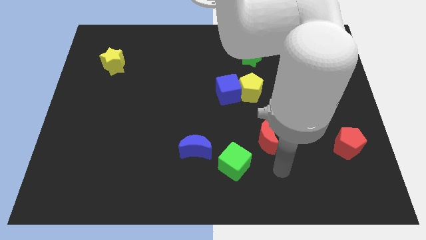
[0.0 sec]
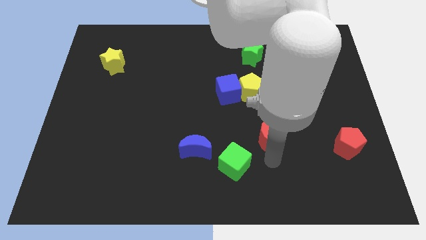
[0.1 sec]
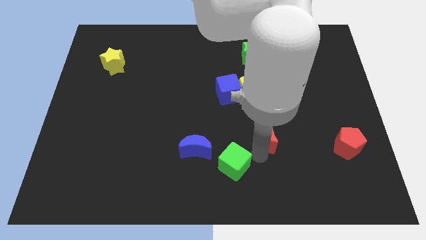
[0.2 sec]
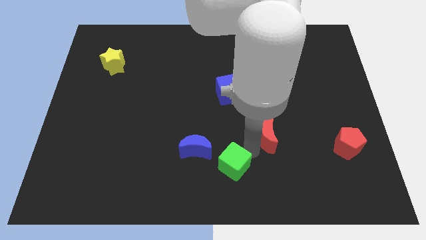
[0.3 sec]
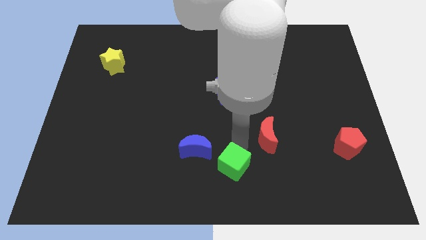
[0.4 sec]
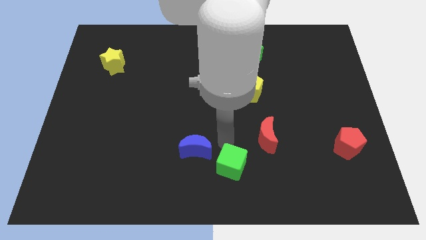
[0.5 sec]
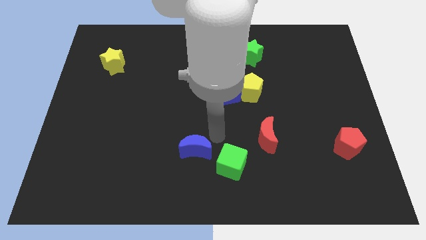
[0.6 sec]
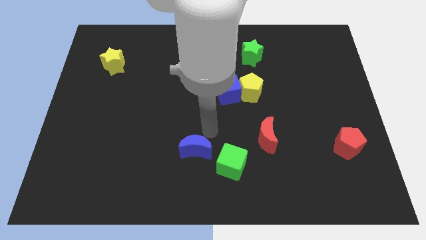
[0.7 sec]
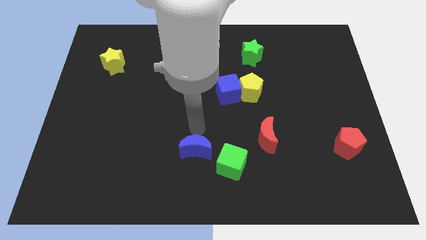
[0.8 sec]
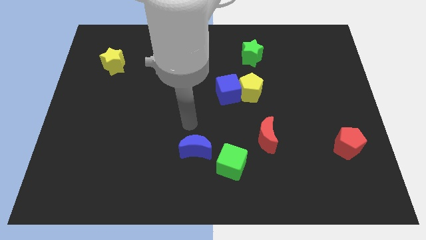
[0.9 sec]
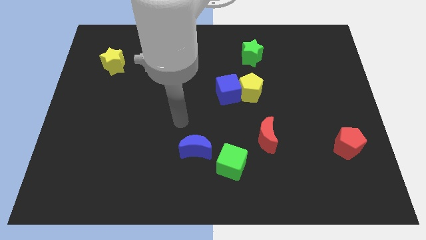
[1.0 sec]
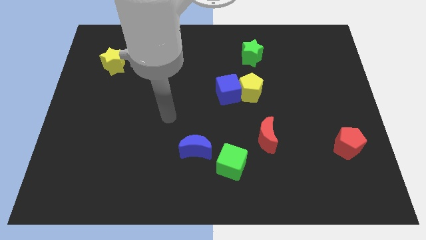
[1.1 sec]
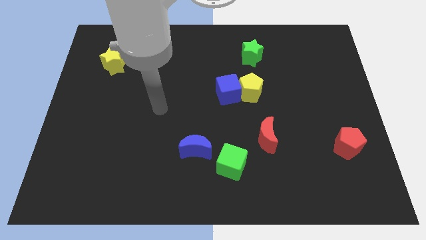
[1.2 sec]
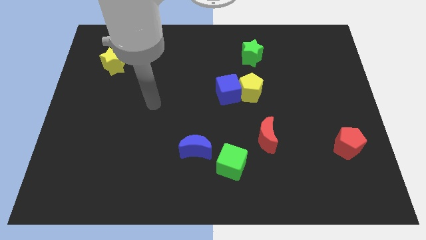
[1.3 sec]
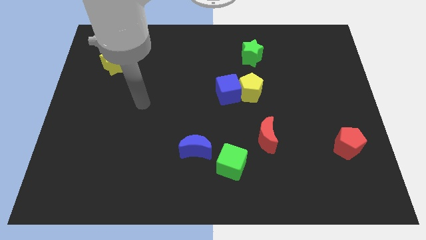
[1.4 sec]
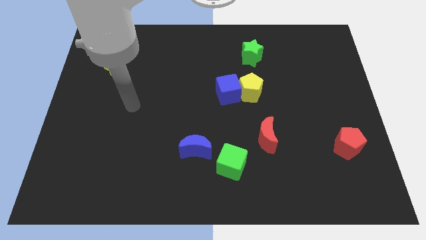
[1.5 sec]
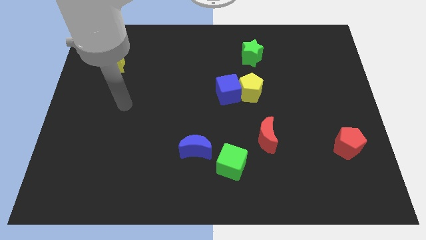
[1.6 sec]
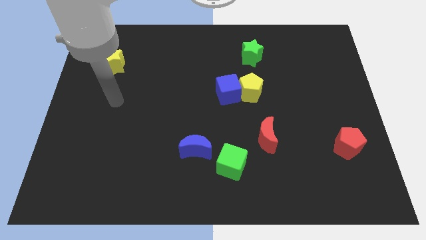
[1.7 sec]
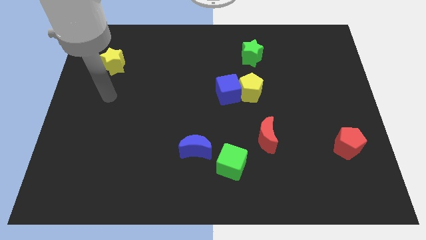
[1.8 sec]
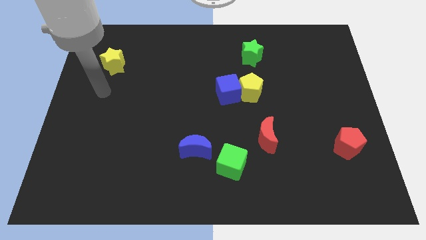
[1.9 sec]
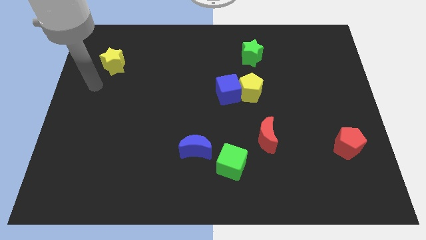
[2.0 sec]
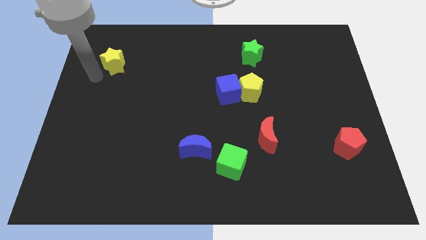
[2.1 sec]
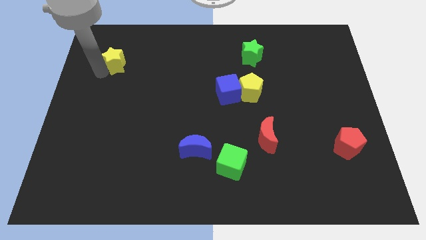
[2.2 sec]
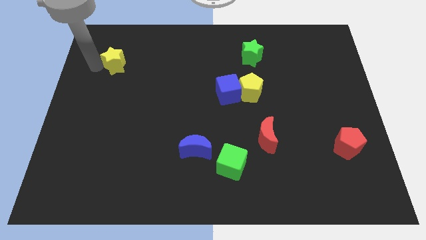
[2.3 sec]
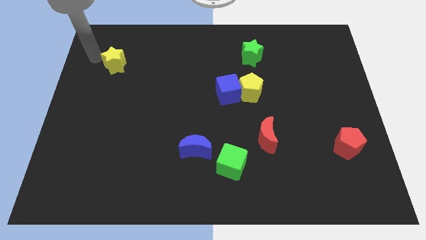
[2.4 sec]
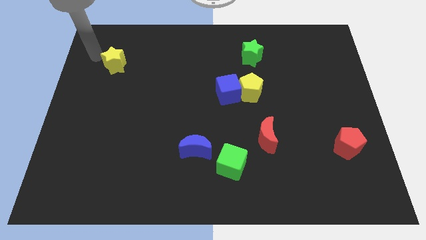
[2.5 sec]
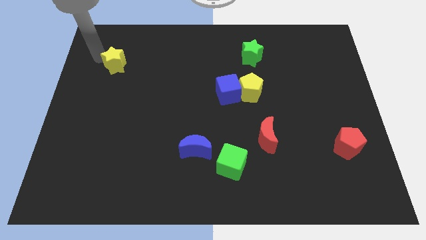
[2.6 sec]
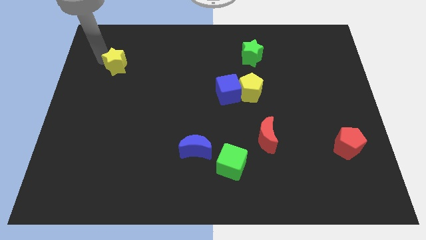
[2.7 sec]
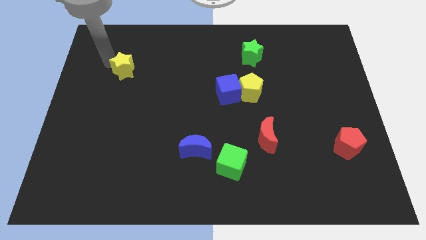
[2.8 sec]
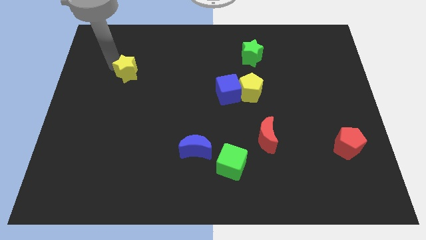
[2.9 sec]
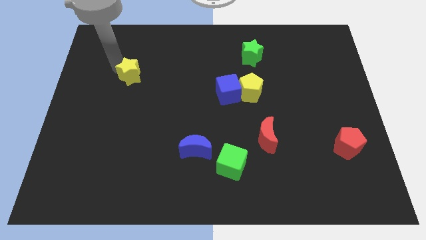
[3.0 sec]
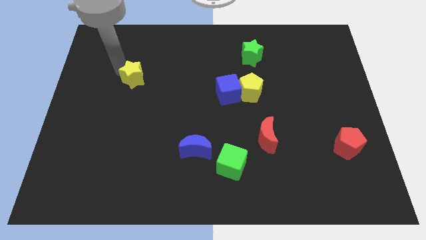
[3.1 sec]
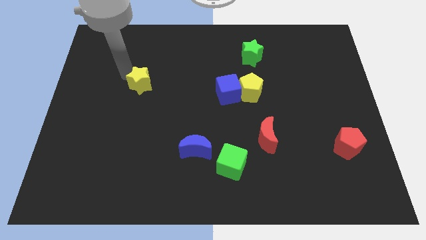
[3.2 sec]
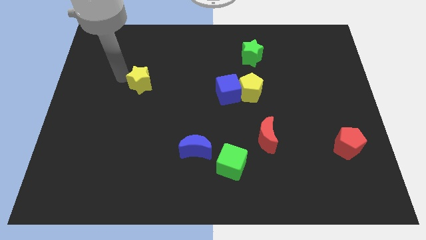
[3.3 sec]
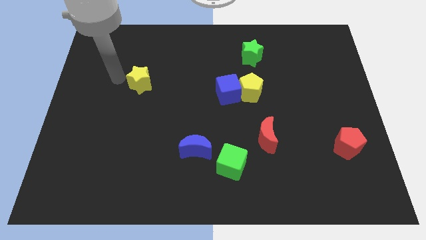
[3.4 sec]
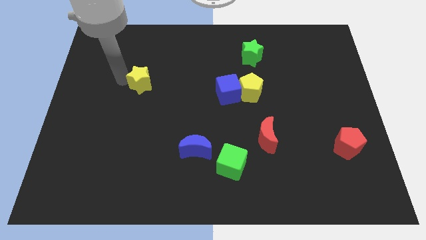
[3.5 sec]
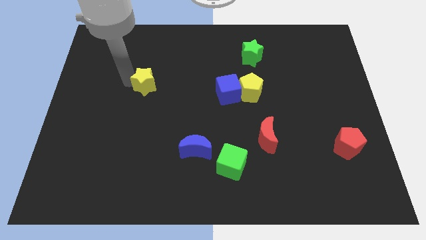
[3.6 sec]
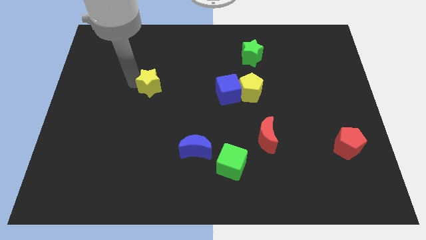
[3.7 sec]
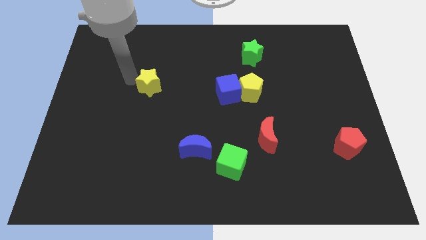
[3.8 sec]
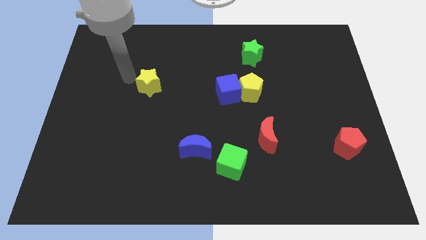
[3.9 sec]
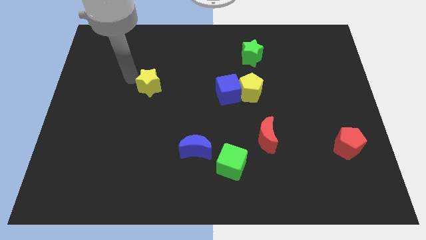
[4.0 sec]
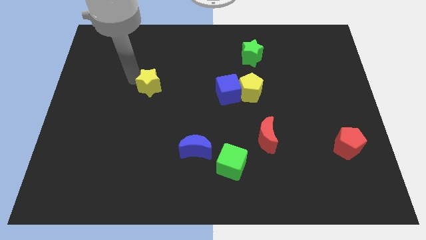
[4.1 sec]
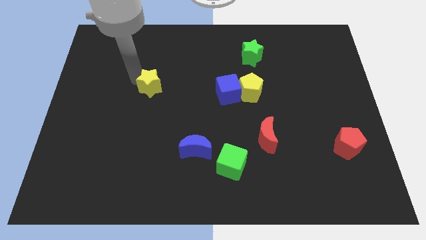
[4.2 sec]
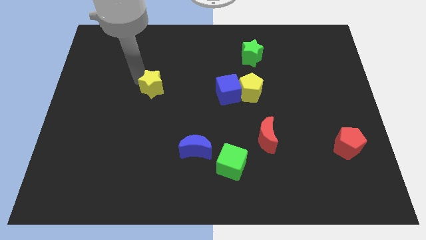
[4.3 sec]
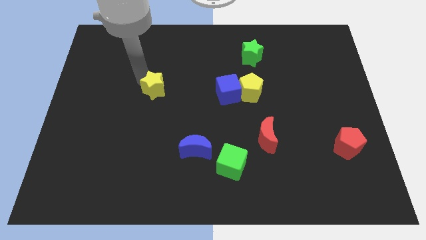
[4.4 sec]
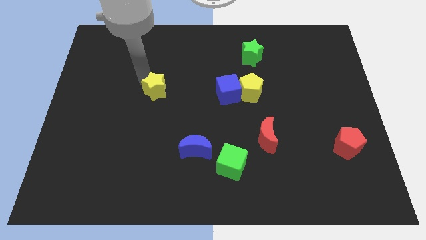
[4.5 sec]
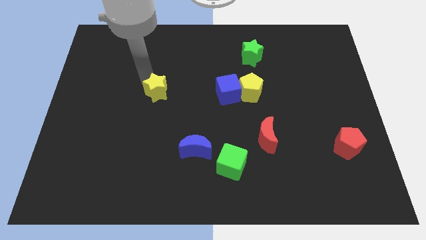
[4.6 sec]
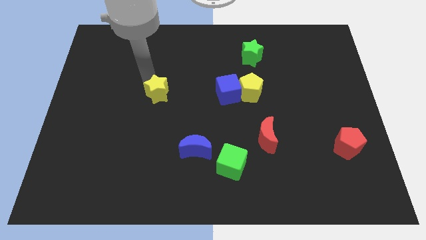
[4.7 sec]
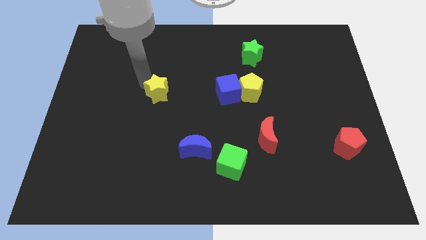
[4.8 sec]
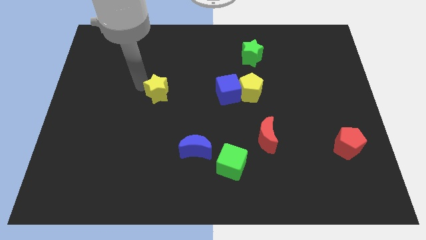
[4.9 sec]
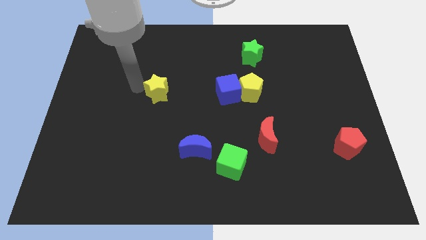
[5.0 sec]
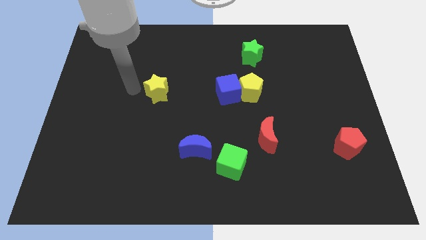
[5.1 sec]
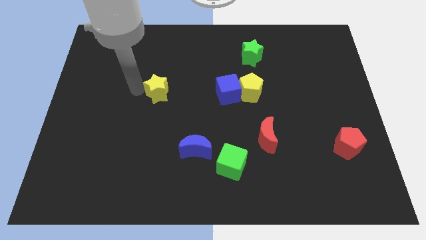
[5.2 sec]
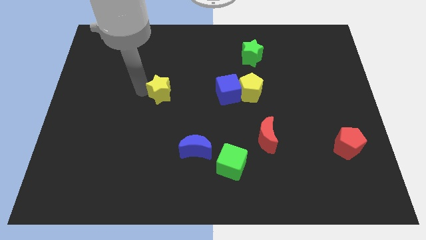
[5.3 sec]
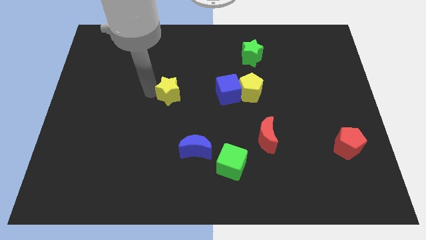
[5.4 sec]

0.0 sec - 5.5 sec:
push the yellow star to the middle
